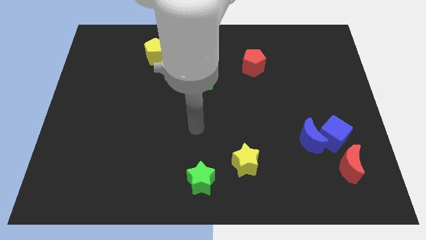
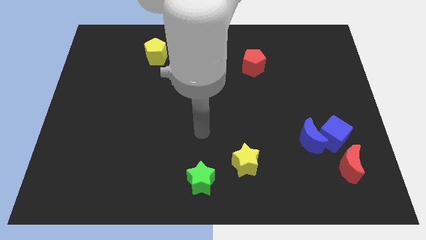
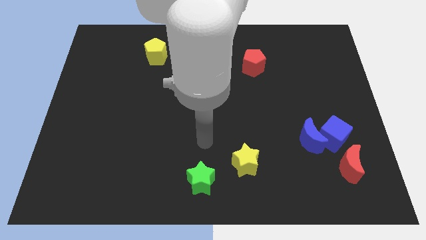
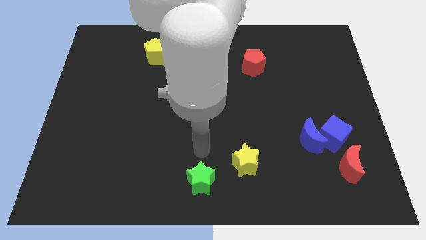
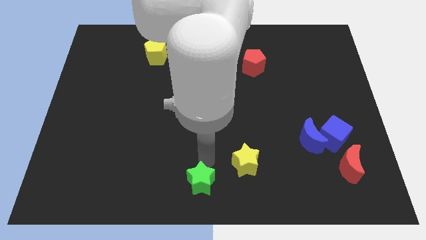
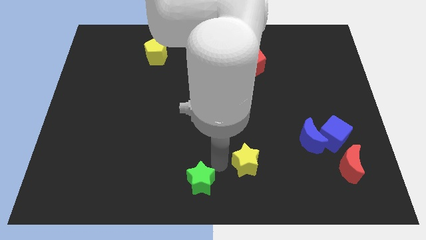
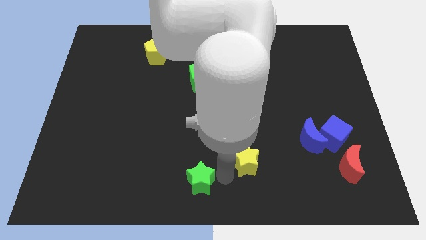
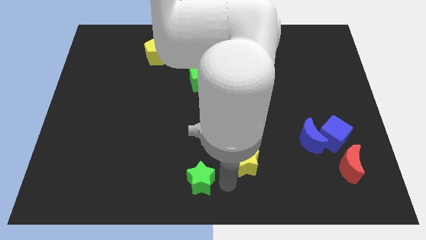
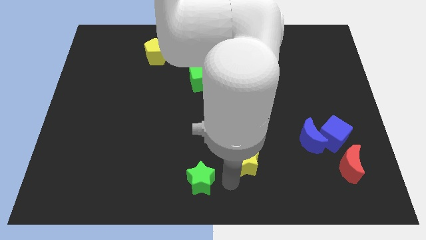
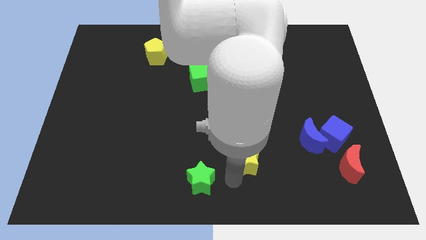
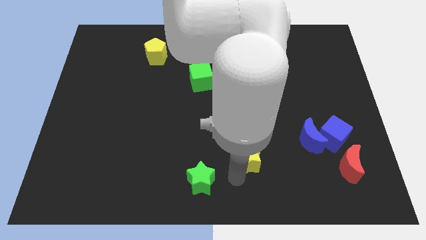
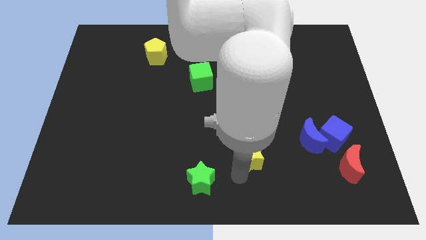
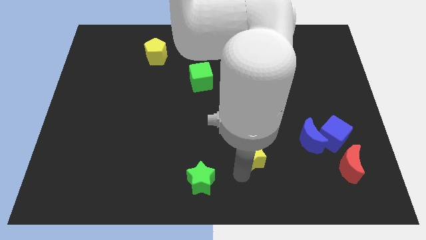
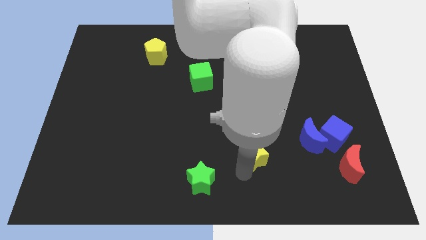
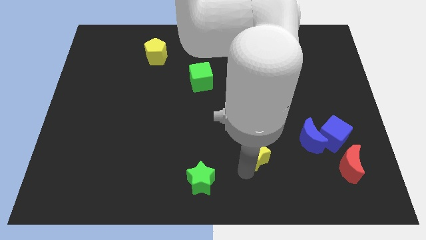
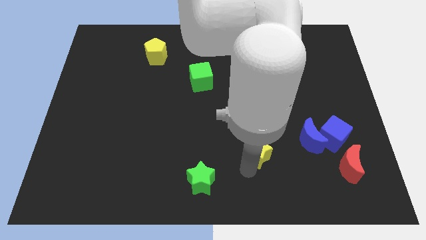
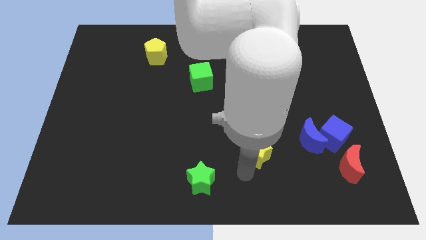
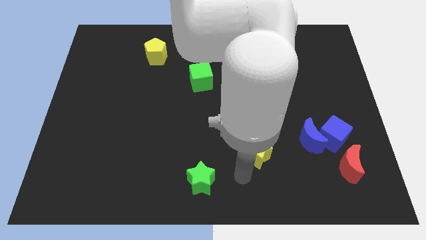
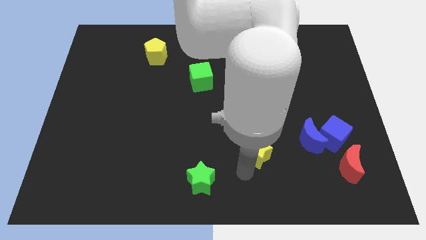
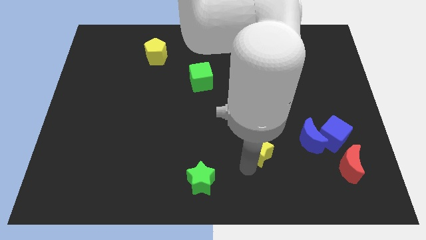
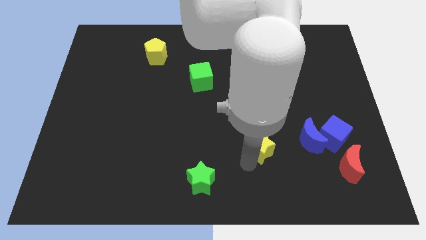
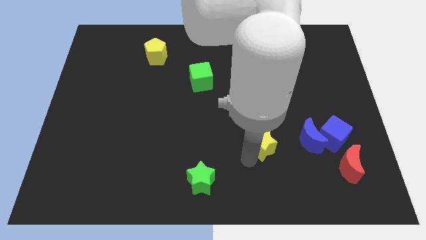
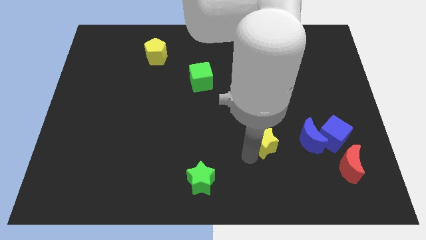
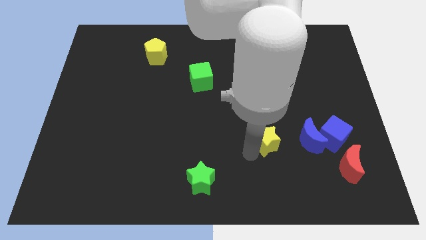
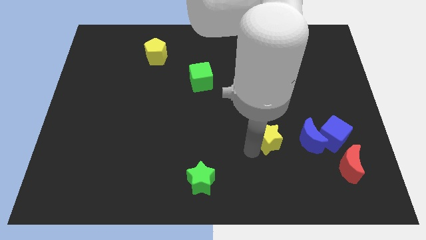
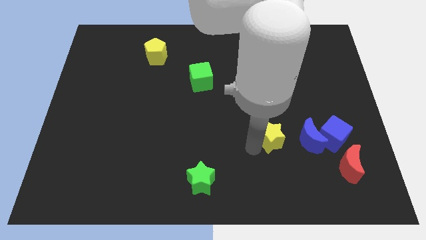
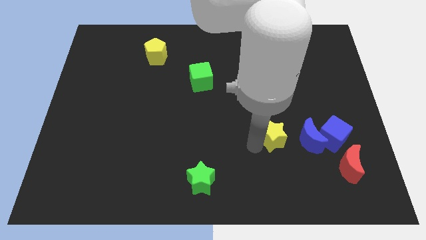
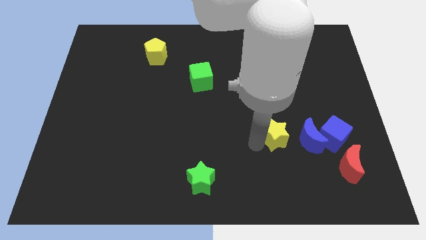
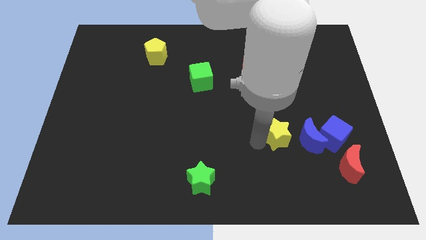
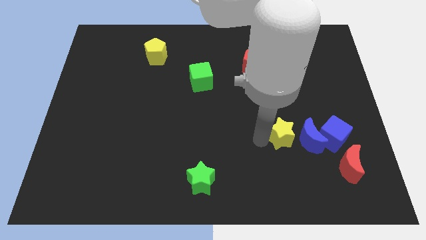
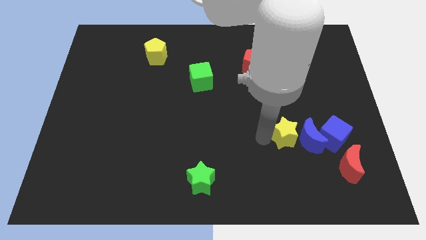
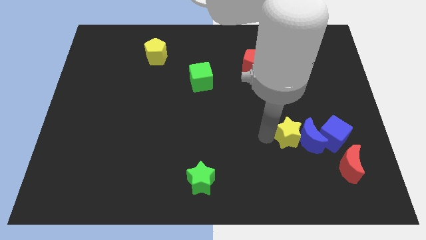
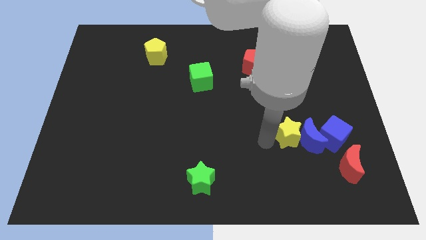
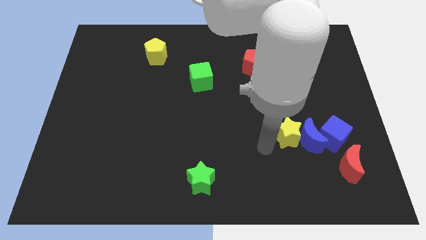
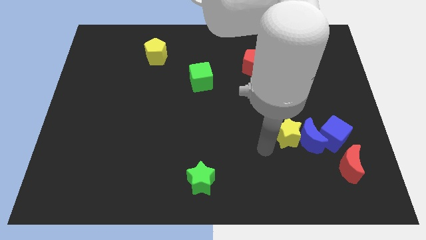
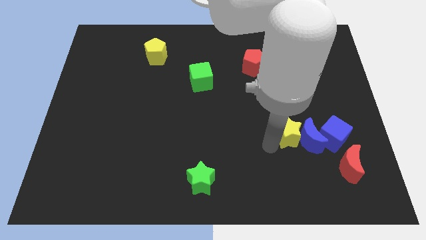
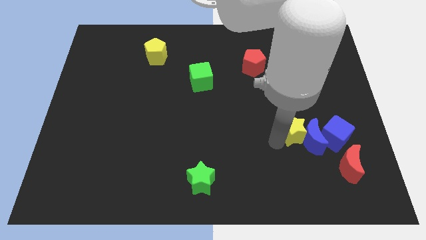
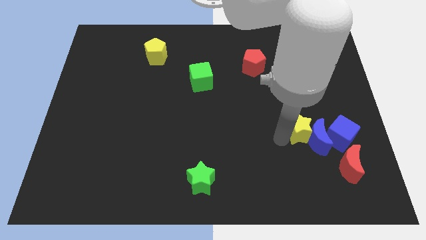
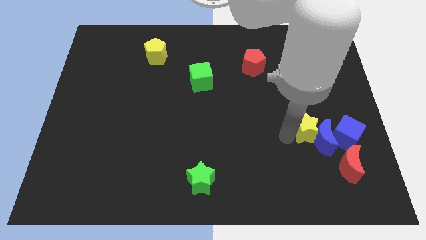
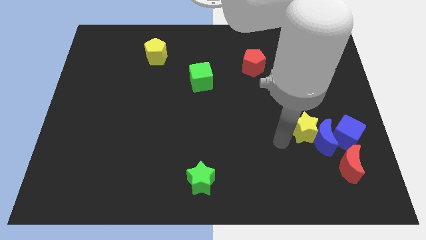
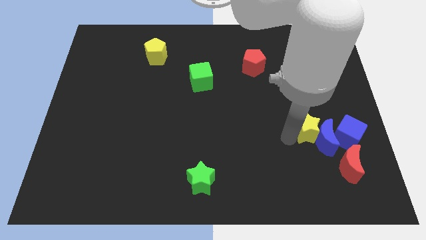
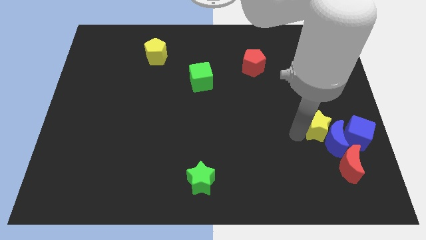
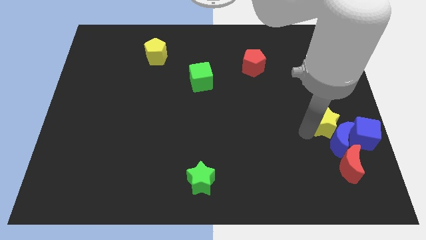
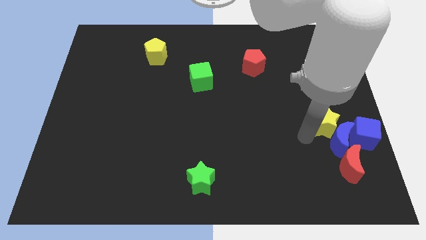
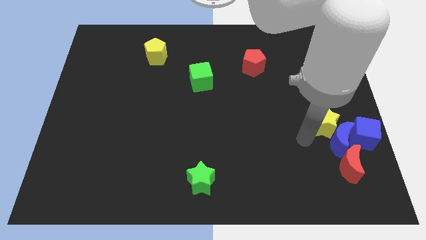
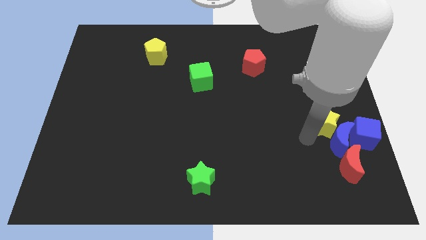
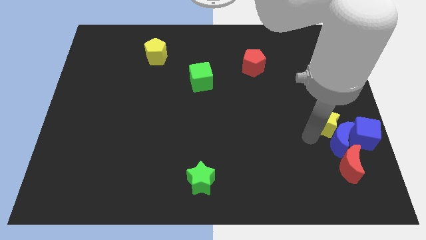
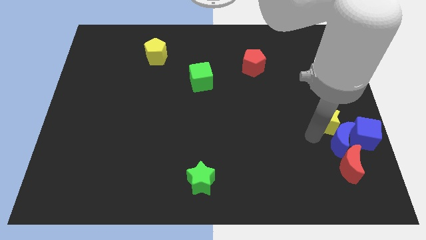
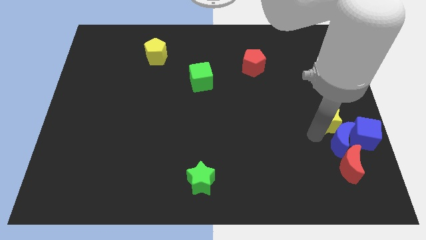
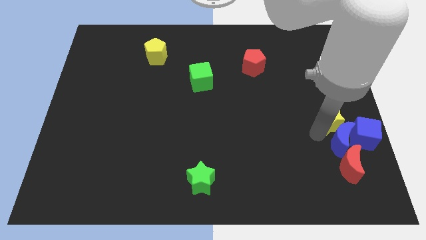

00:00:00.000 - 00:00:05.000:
push the yellow star to the center right

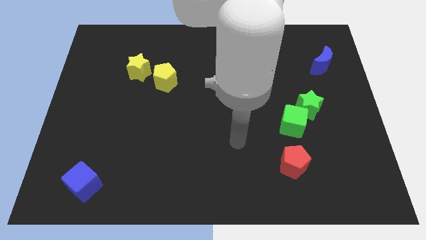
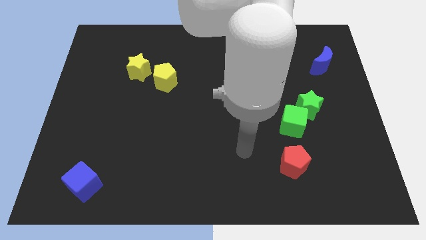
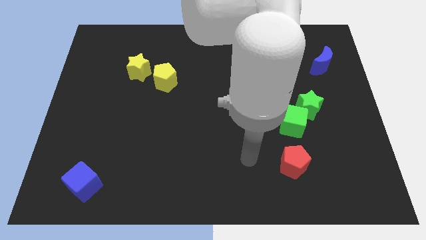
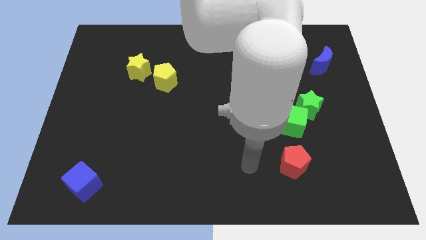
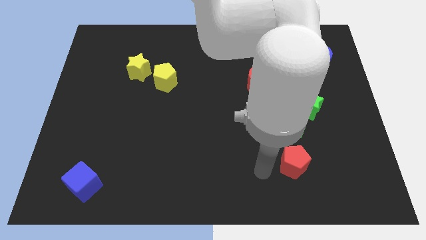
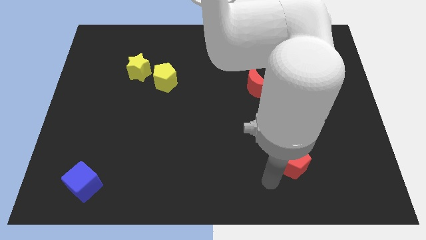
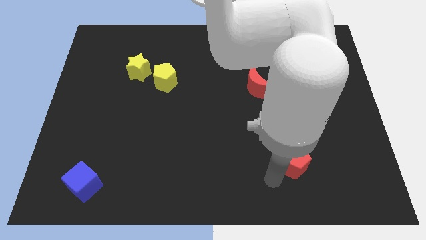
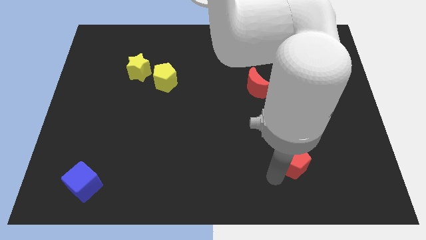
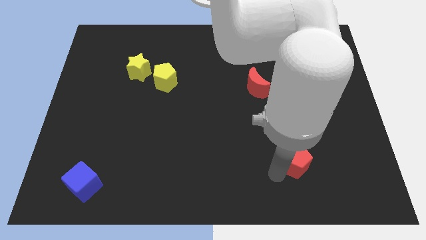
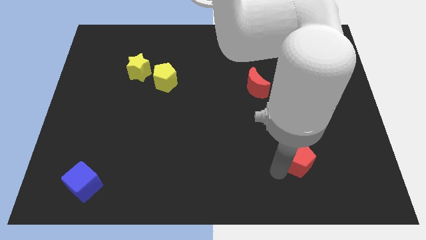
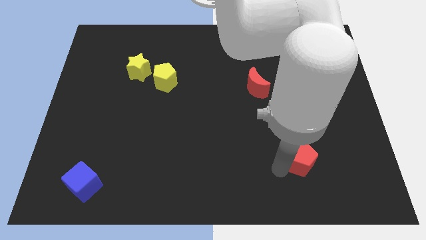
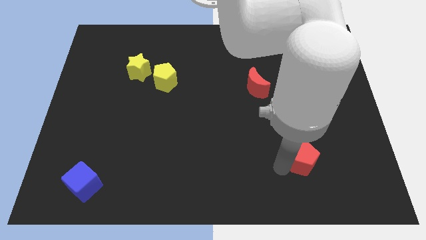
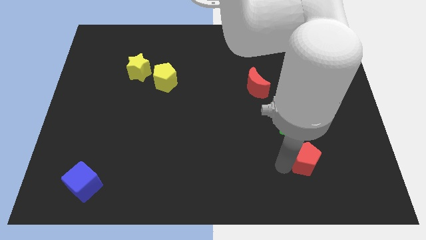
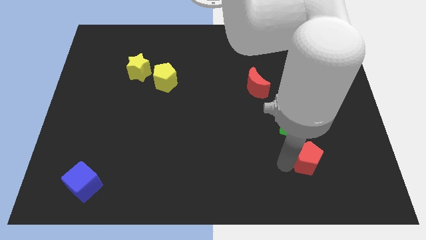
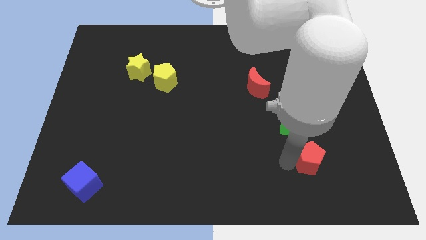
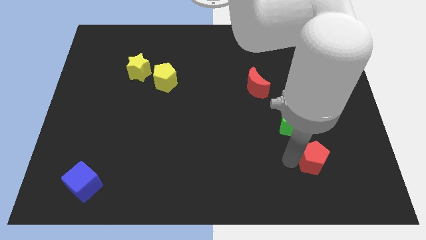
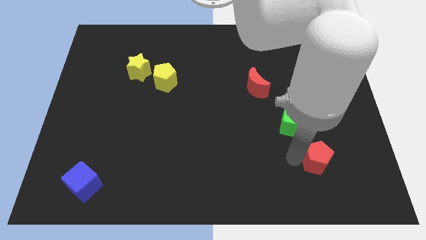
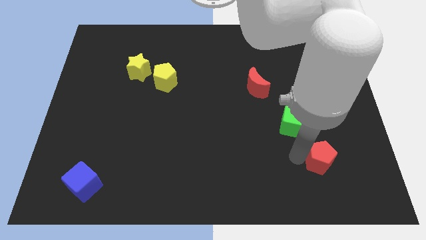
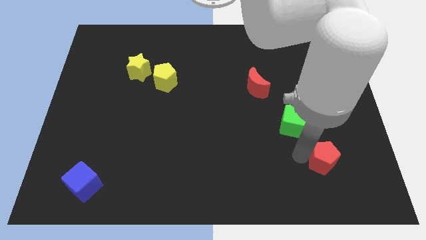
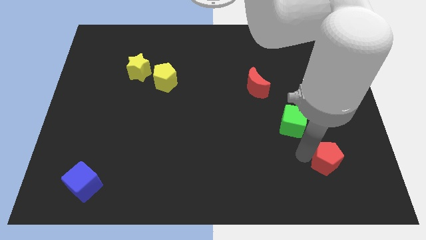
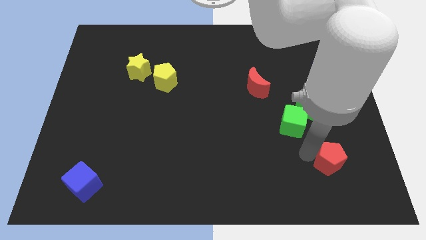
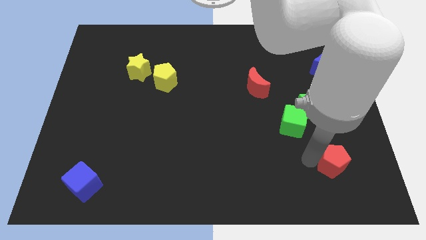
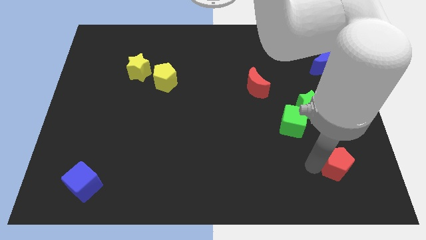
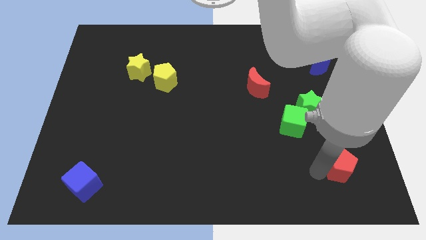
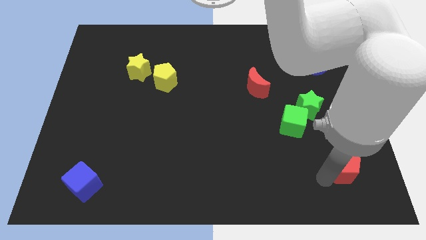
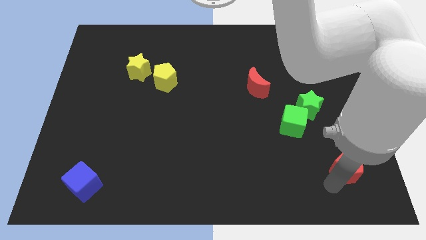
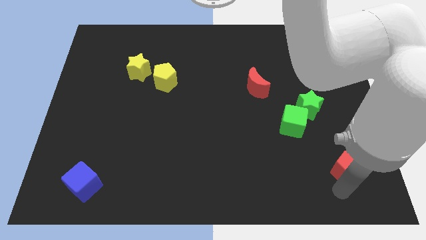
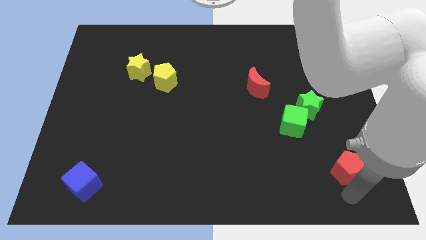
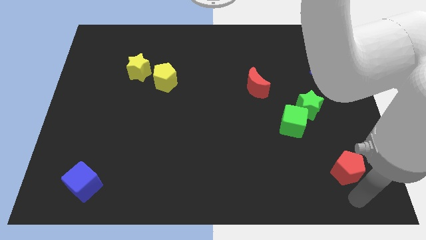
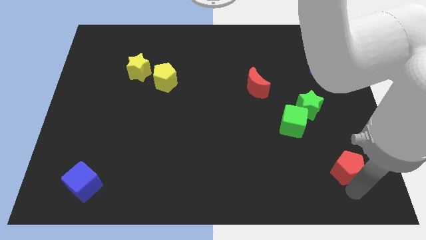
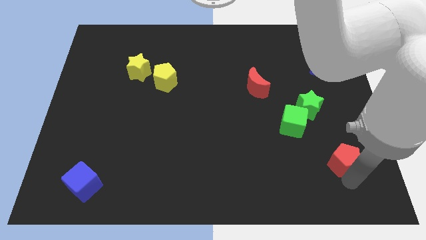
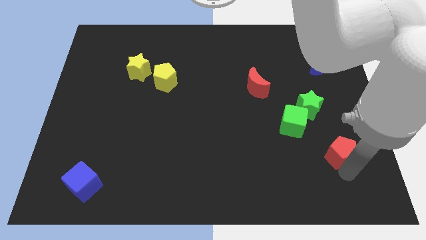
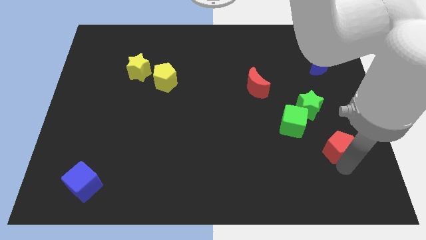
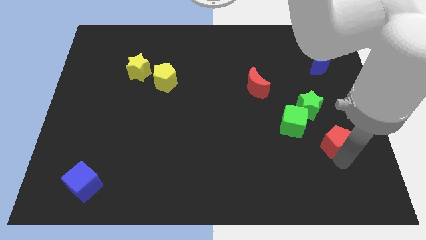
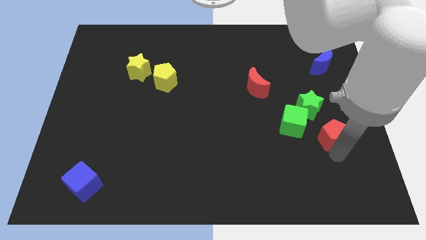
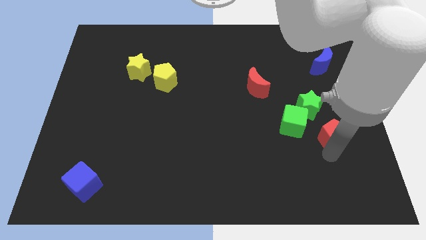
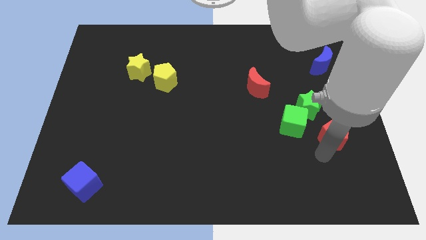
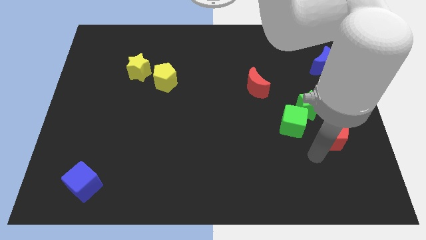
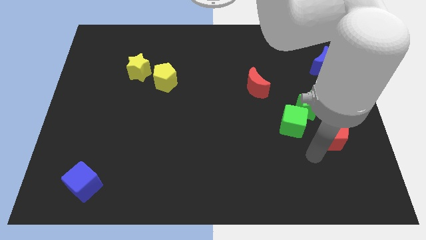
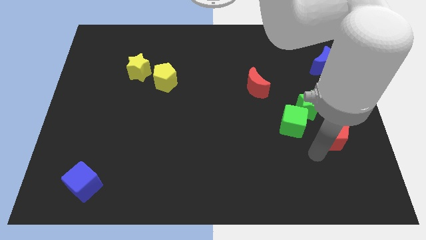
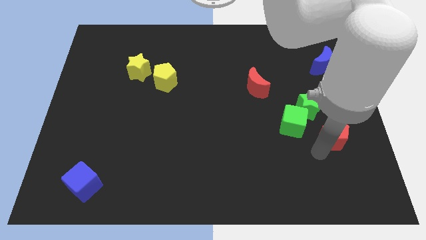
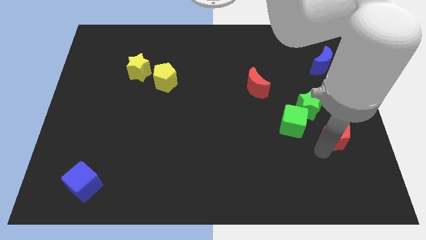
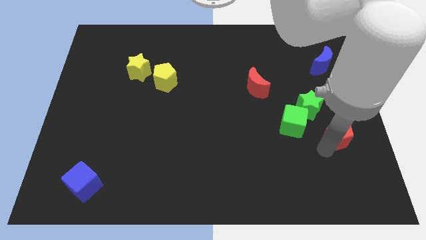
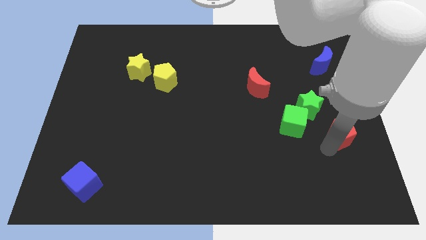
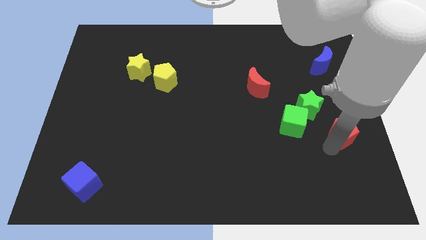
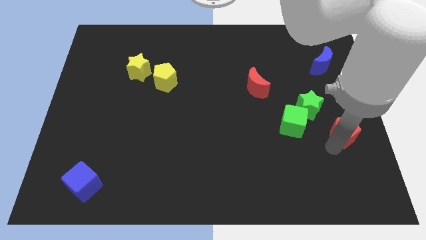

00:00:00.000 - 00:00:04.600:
push the red pentagon to the center right
